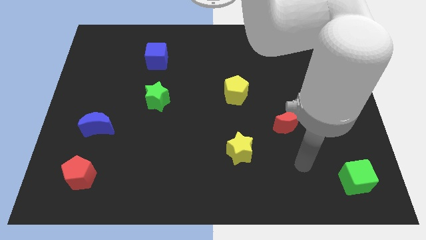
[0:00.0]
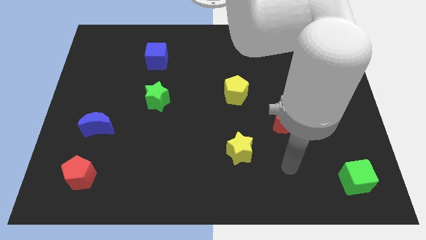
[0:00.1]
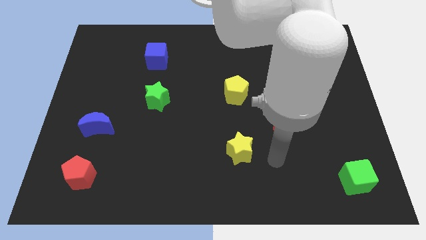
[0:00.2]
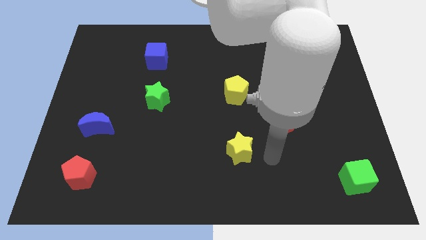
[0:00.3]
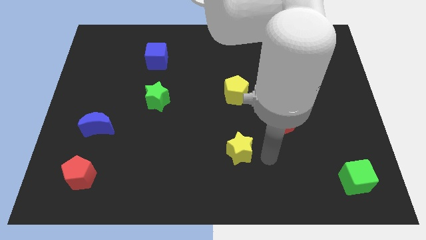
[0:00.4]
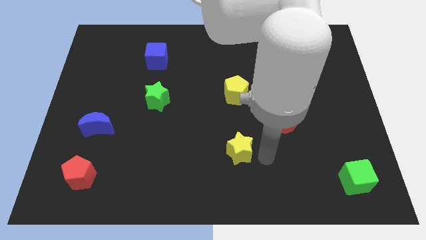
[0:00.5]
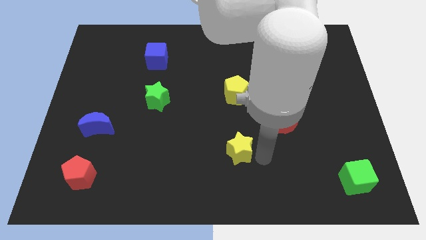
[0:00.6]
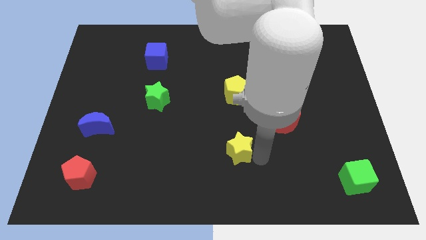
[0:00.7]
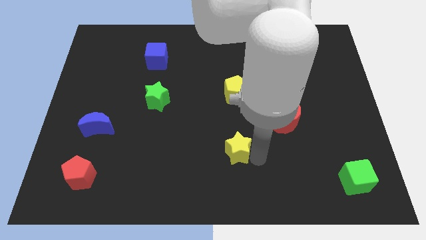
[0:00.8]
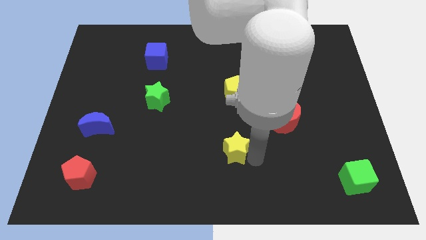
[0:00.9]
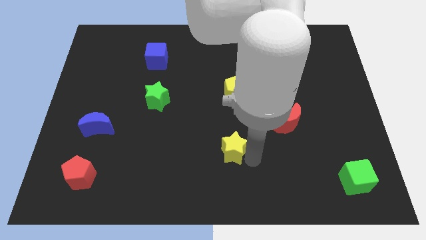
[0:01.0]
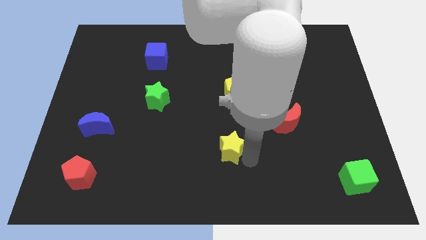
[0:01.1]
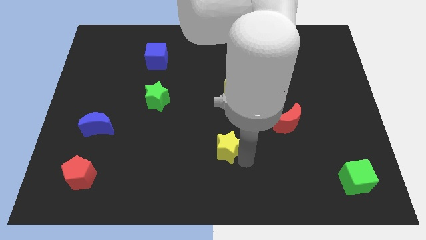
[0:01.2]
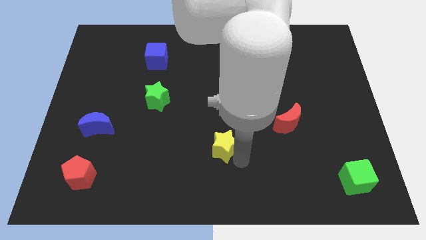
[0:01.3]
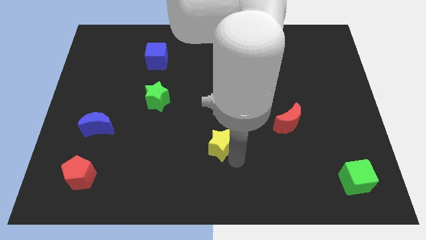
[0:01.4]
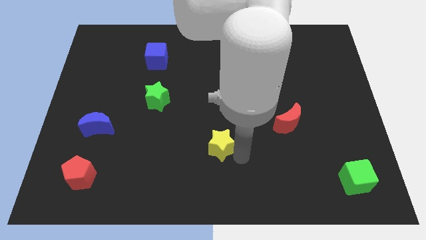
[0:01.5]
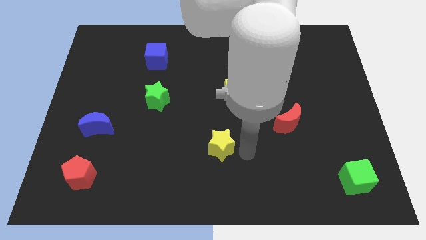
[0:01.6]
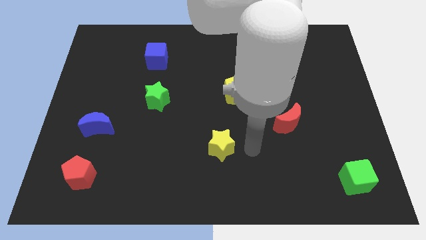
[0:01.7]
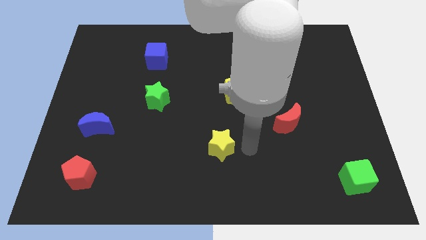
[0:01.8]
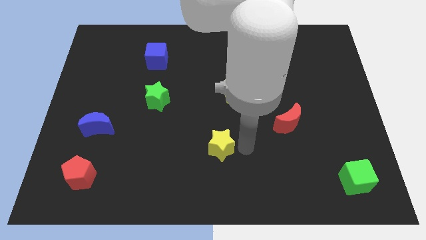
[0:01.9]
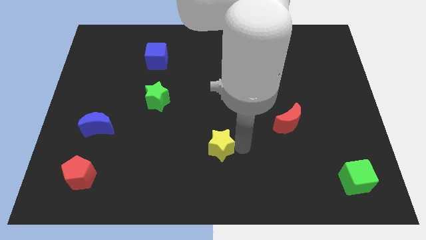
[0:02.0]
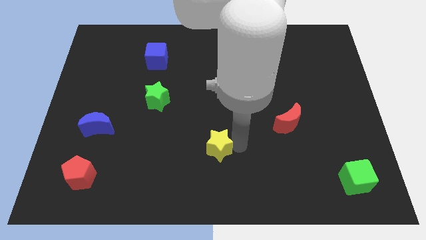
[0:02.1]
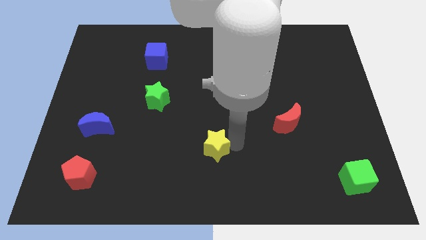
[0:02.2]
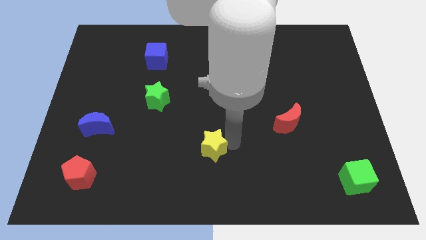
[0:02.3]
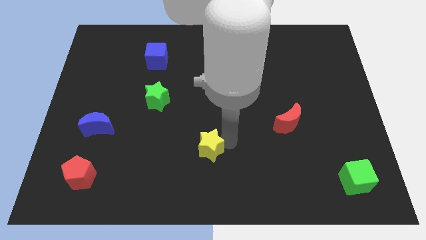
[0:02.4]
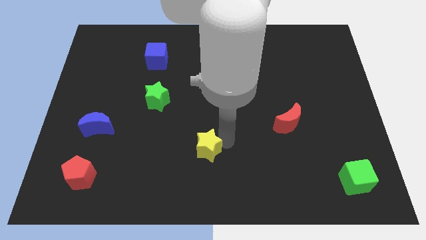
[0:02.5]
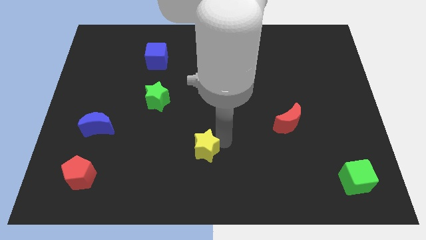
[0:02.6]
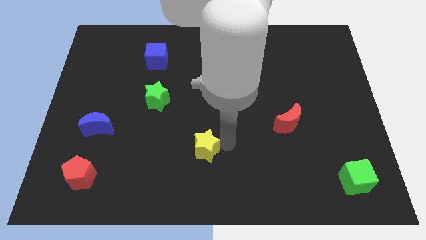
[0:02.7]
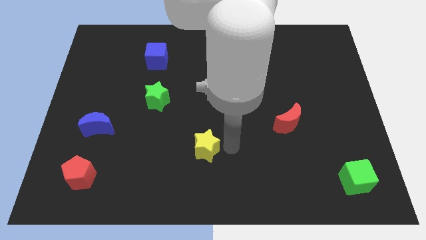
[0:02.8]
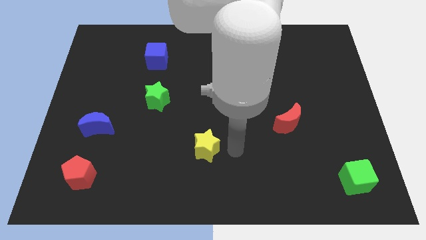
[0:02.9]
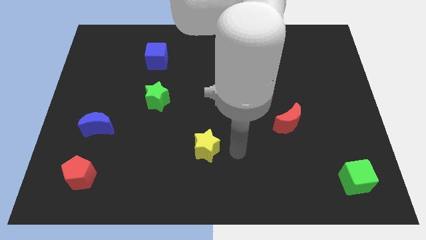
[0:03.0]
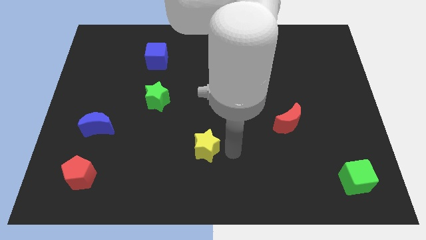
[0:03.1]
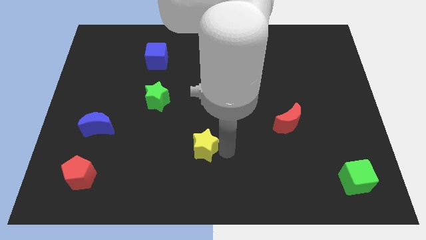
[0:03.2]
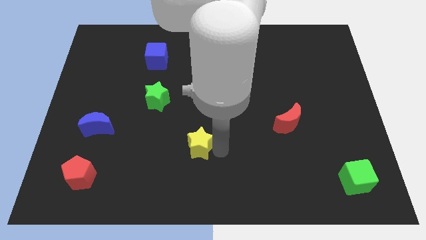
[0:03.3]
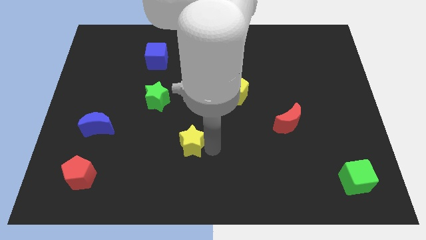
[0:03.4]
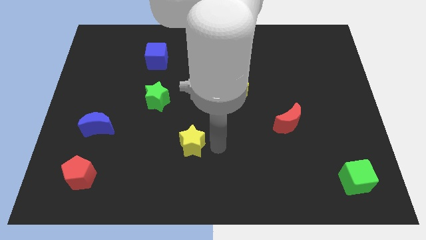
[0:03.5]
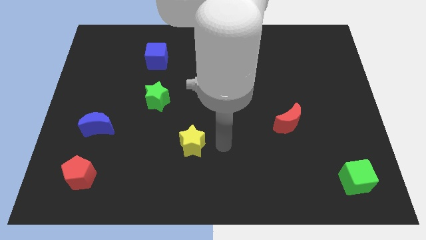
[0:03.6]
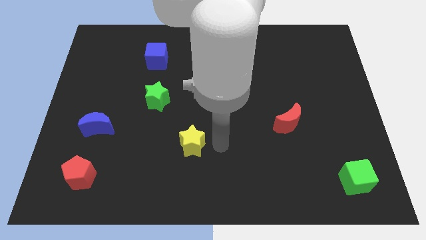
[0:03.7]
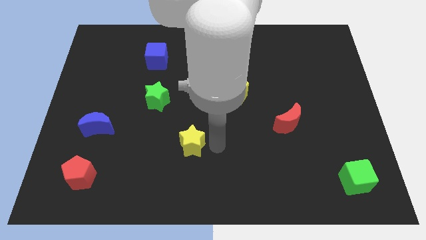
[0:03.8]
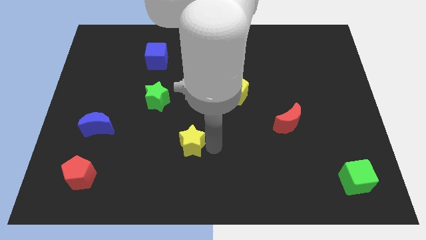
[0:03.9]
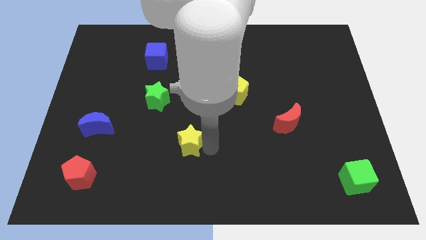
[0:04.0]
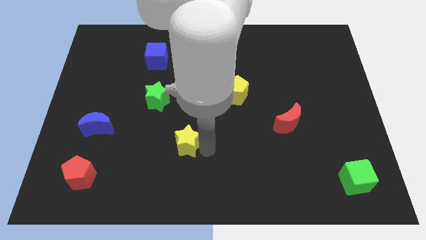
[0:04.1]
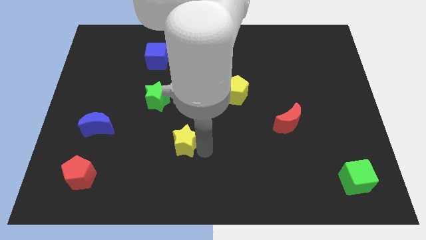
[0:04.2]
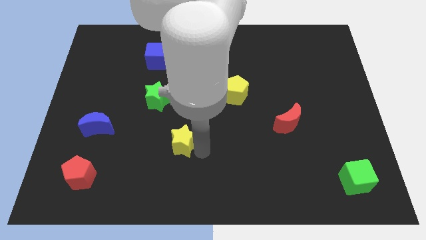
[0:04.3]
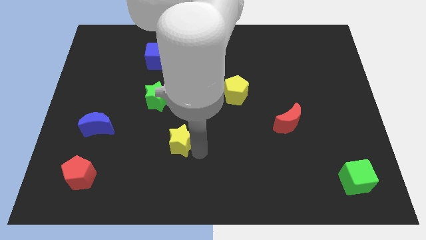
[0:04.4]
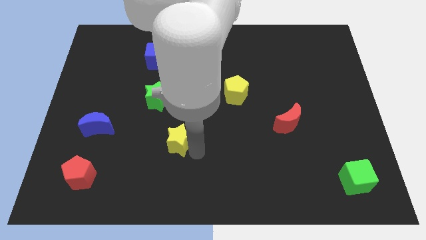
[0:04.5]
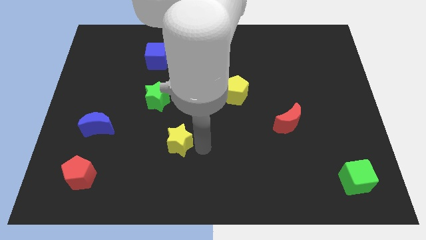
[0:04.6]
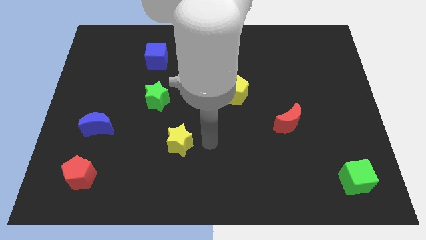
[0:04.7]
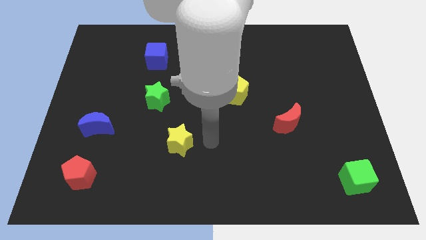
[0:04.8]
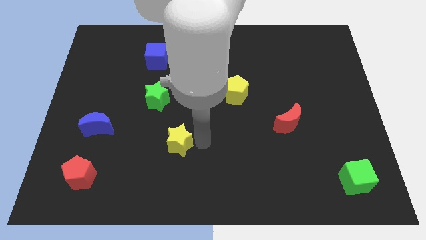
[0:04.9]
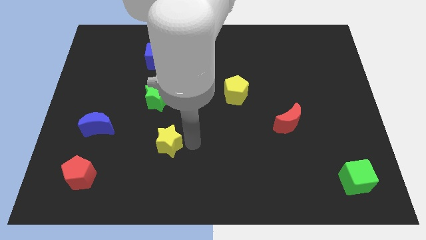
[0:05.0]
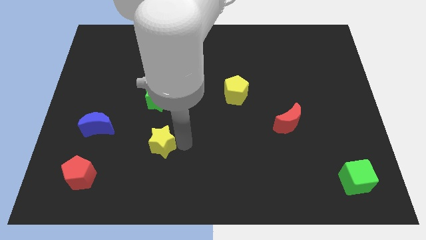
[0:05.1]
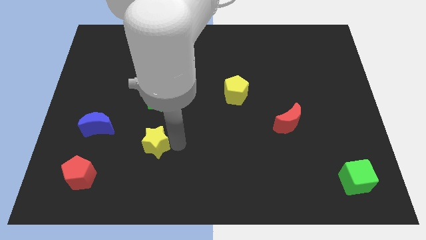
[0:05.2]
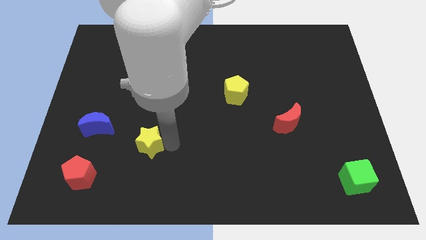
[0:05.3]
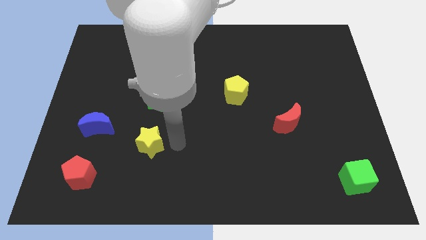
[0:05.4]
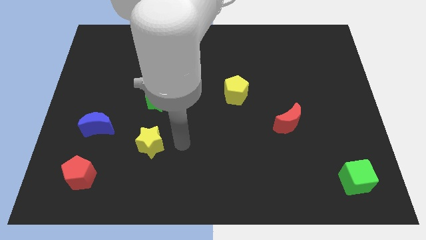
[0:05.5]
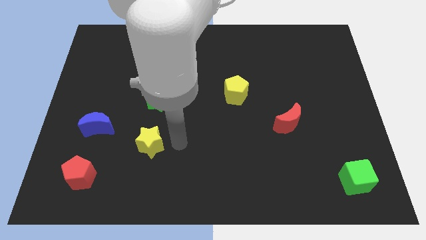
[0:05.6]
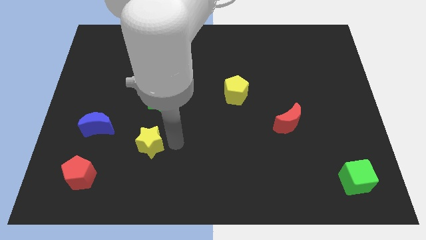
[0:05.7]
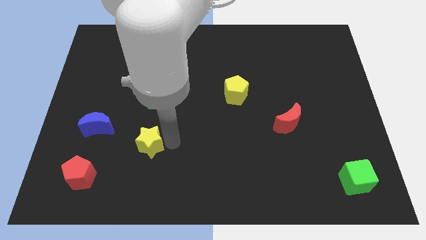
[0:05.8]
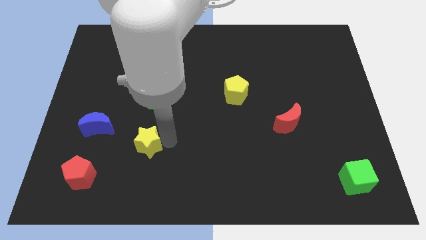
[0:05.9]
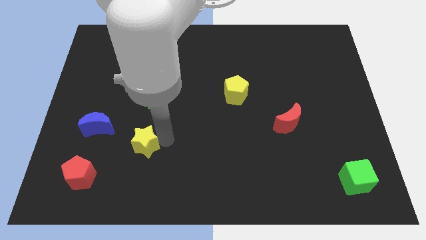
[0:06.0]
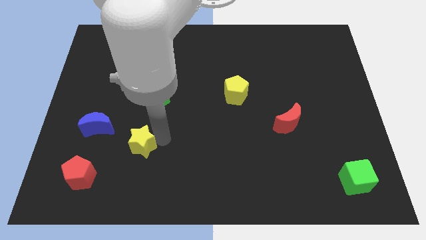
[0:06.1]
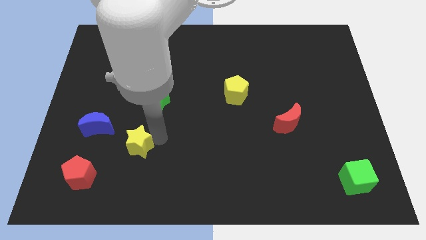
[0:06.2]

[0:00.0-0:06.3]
move the yellow star to the bottom right side of the blue moon

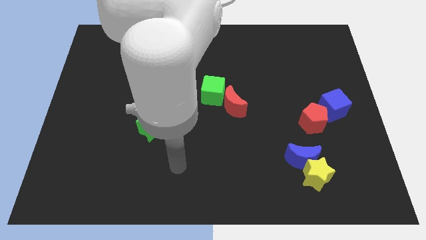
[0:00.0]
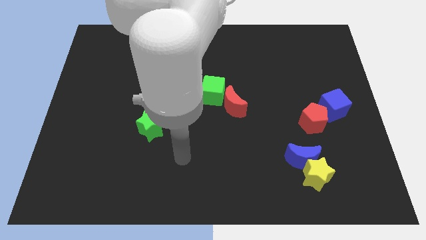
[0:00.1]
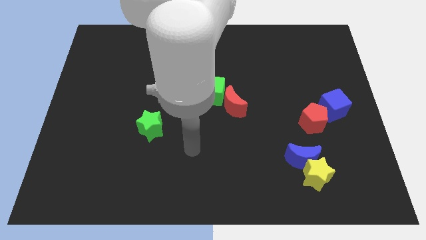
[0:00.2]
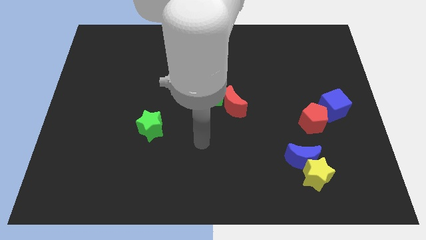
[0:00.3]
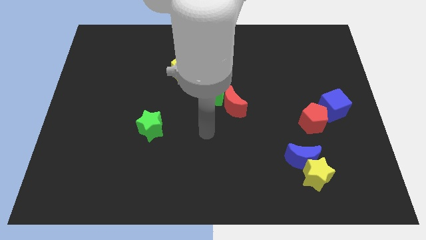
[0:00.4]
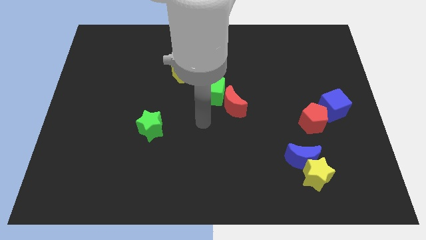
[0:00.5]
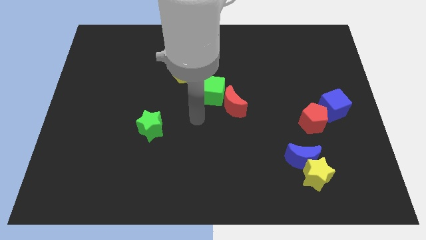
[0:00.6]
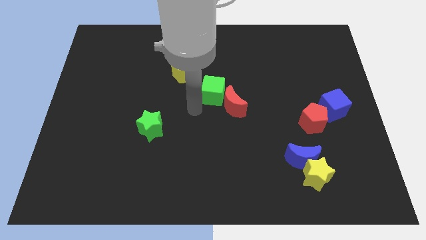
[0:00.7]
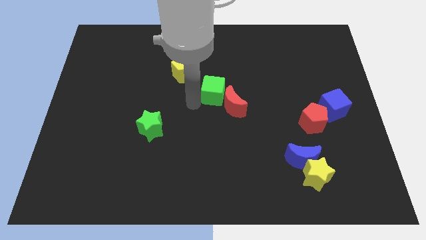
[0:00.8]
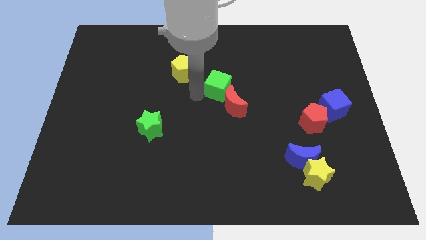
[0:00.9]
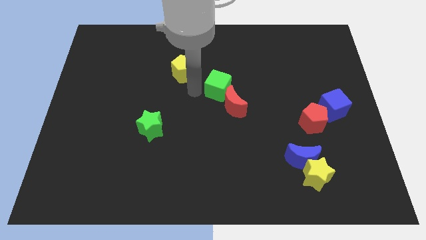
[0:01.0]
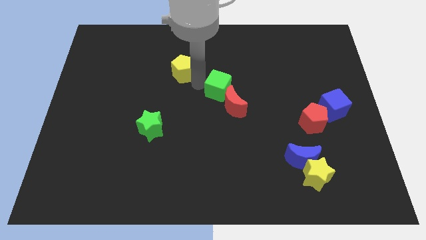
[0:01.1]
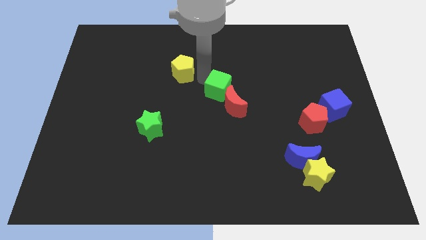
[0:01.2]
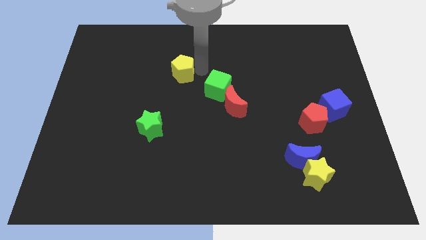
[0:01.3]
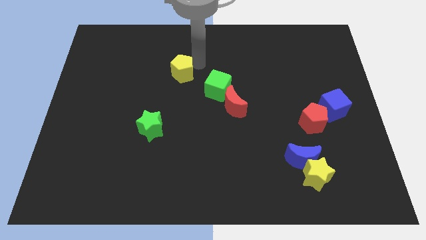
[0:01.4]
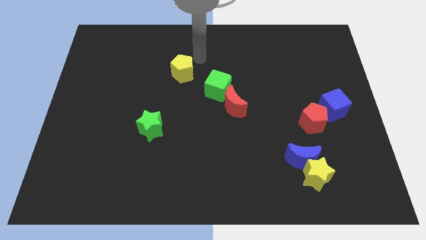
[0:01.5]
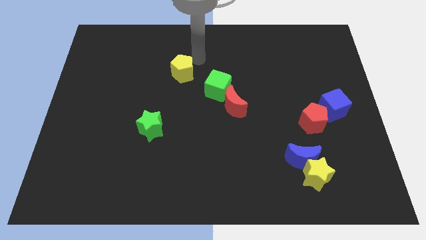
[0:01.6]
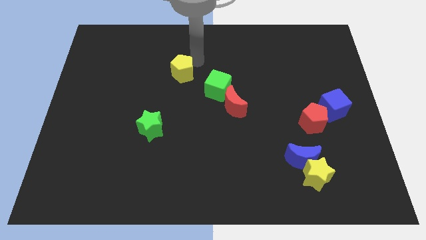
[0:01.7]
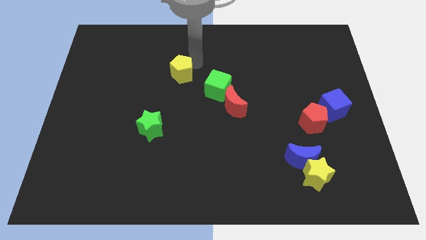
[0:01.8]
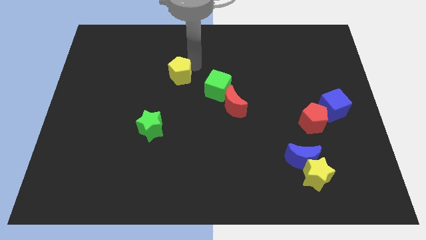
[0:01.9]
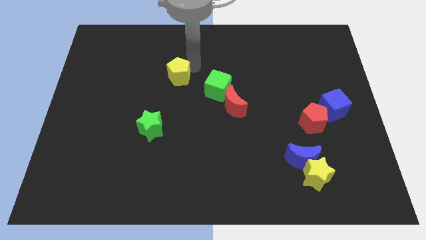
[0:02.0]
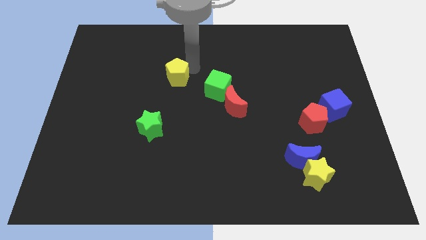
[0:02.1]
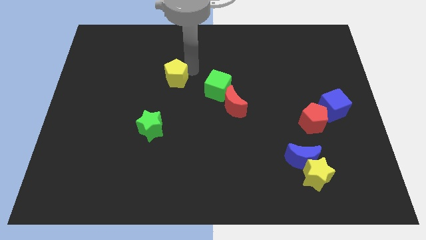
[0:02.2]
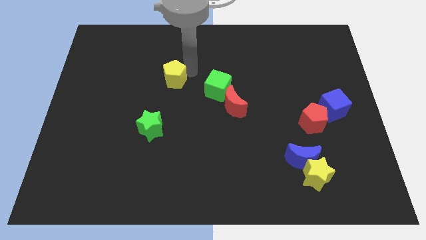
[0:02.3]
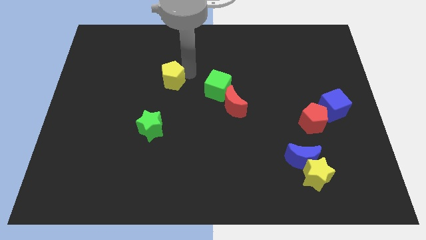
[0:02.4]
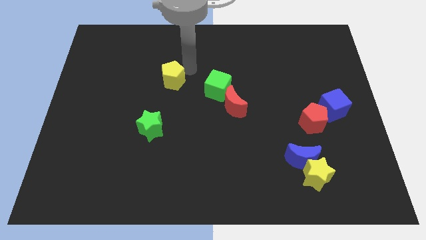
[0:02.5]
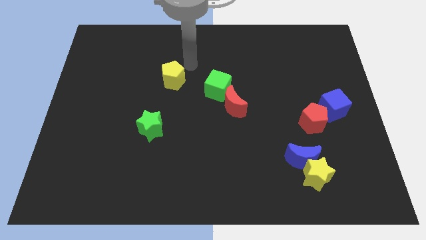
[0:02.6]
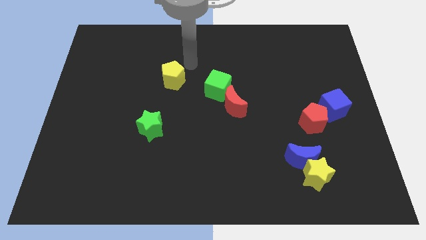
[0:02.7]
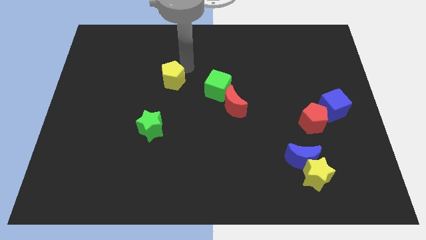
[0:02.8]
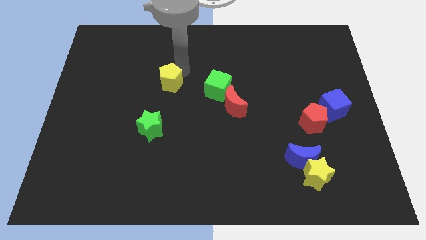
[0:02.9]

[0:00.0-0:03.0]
push the yellow pentagon to the top side of the green star
